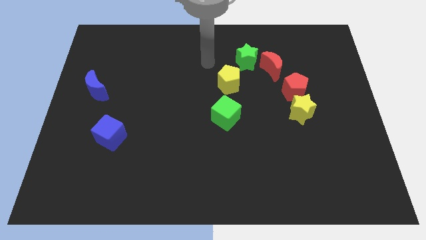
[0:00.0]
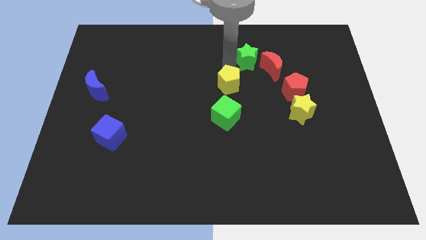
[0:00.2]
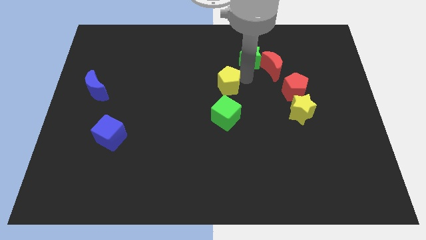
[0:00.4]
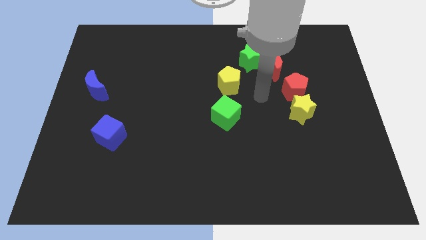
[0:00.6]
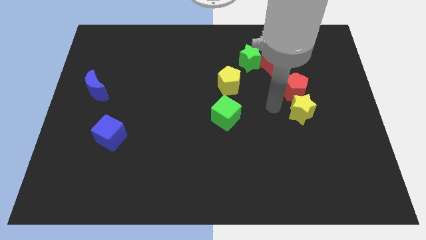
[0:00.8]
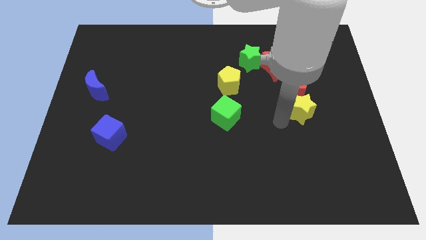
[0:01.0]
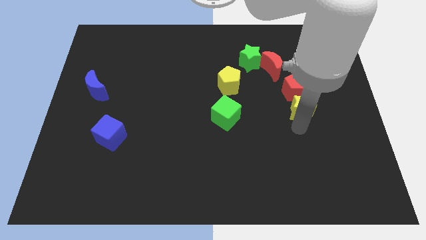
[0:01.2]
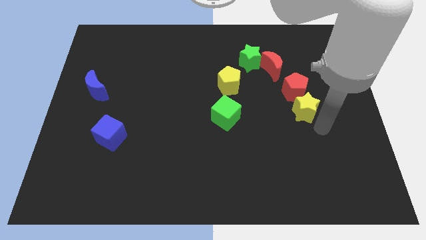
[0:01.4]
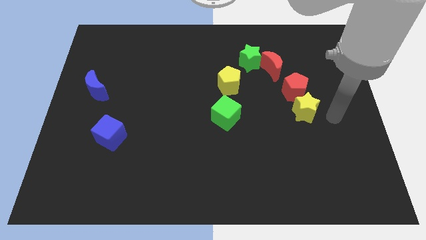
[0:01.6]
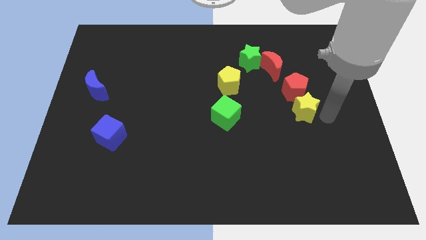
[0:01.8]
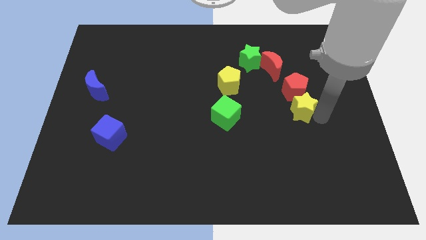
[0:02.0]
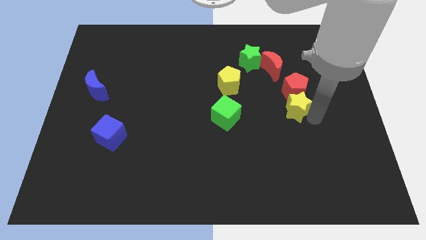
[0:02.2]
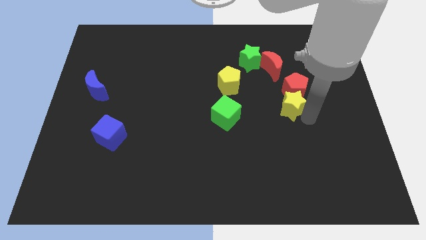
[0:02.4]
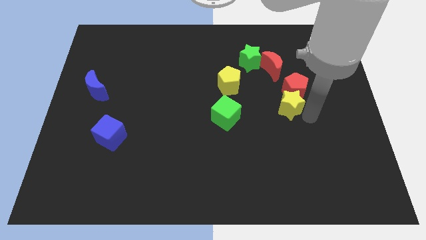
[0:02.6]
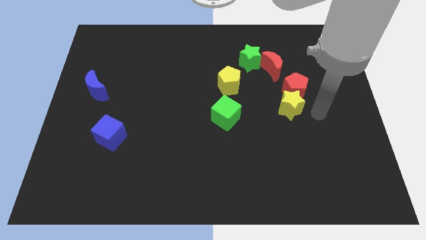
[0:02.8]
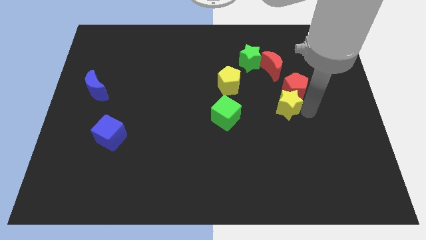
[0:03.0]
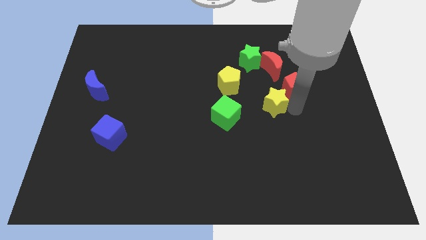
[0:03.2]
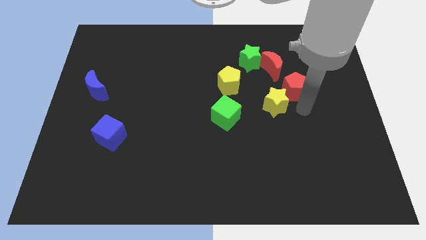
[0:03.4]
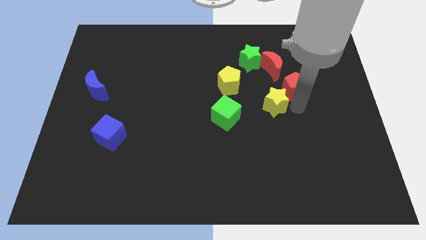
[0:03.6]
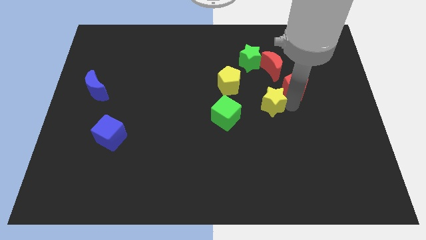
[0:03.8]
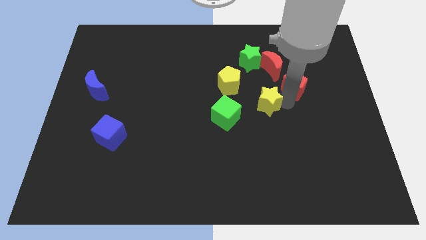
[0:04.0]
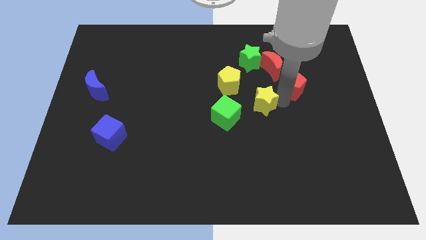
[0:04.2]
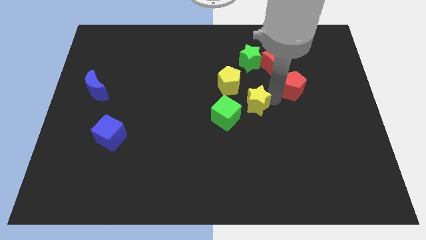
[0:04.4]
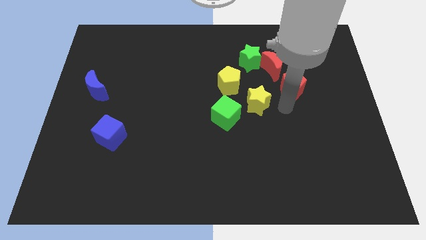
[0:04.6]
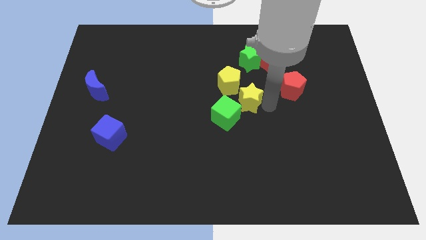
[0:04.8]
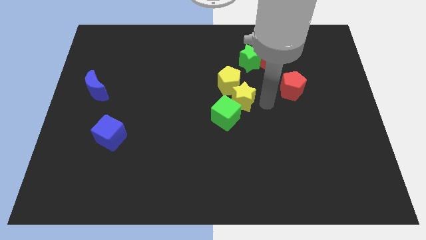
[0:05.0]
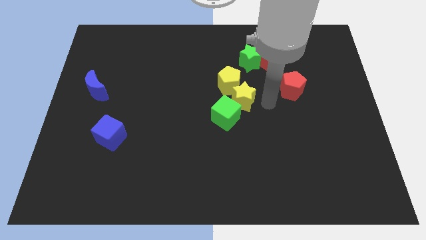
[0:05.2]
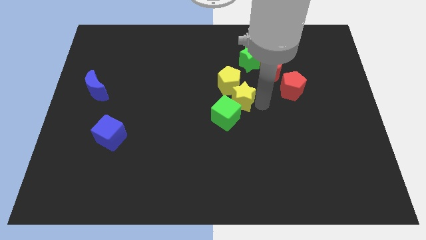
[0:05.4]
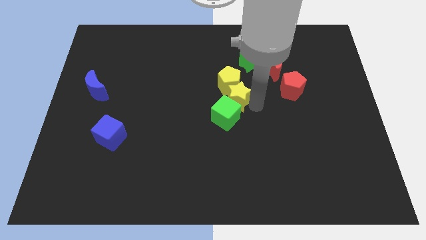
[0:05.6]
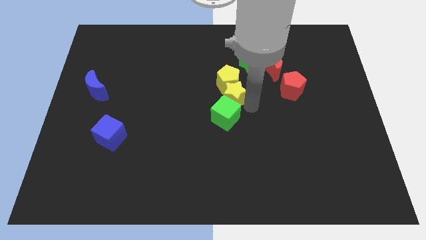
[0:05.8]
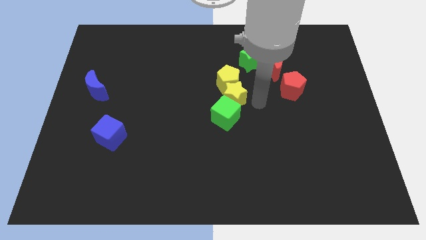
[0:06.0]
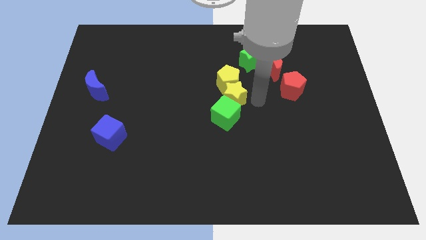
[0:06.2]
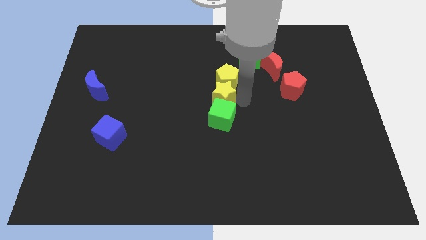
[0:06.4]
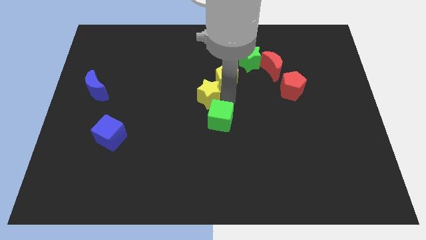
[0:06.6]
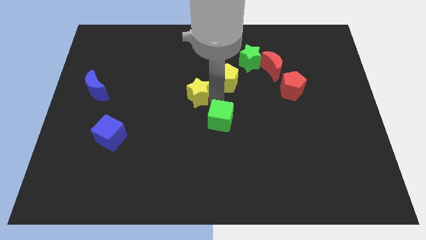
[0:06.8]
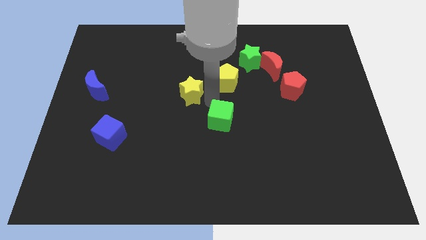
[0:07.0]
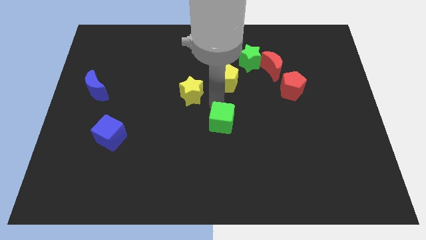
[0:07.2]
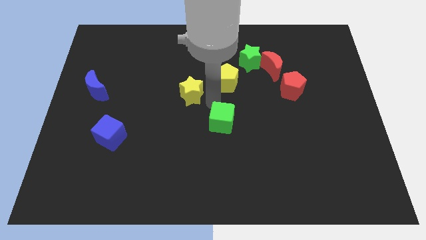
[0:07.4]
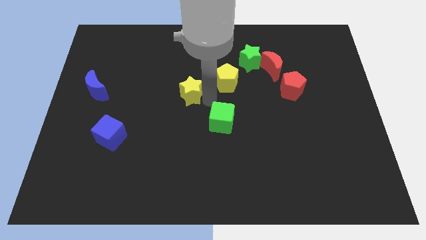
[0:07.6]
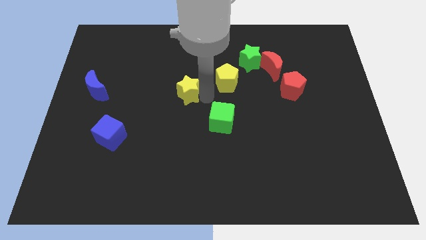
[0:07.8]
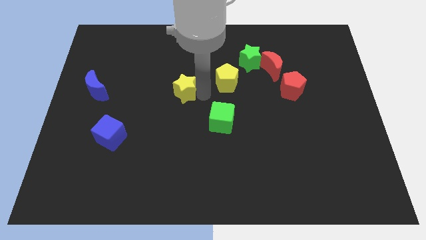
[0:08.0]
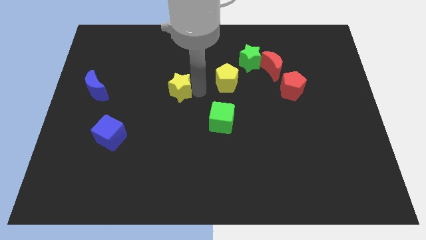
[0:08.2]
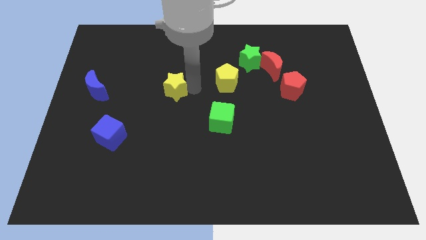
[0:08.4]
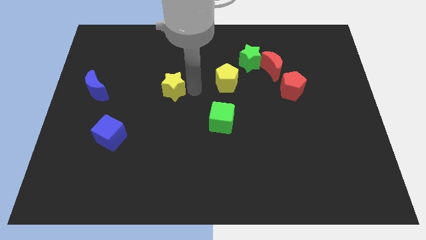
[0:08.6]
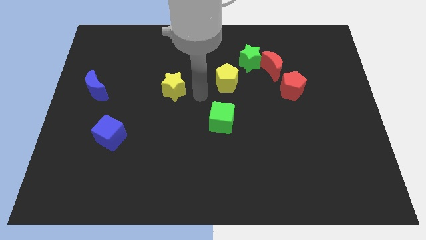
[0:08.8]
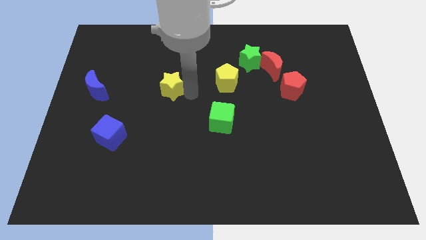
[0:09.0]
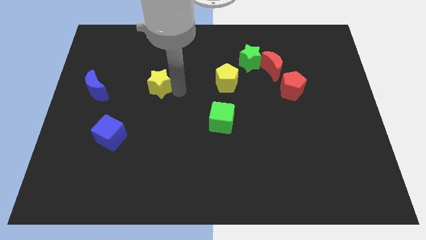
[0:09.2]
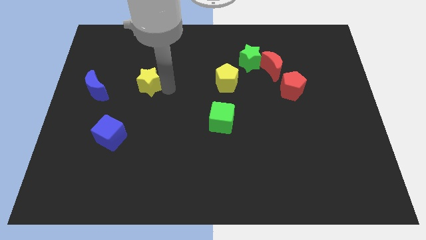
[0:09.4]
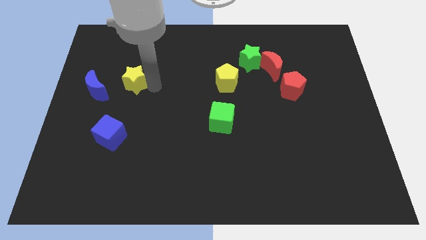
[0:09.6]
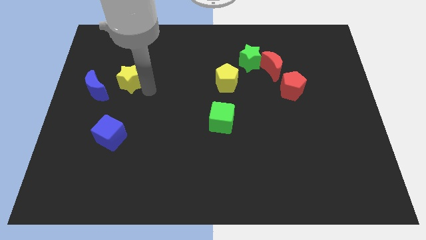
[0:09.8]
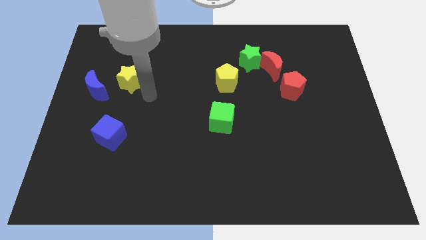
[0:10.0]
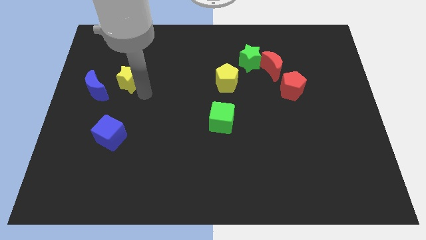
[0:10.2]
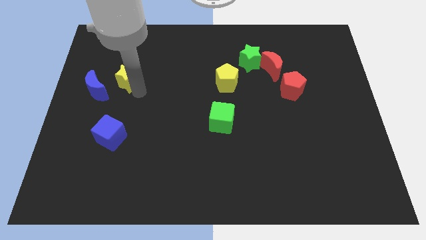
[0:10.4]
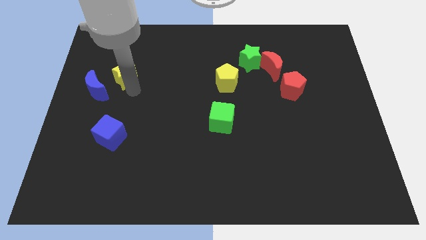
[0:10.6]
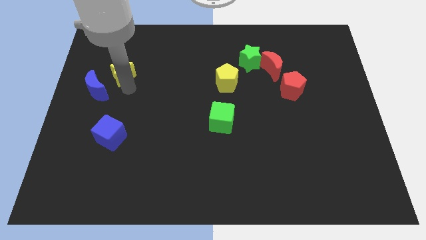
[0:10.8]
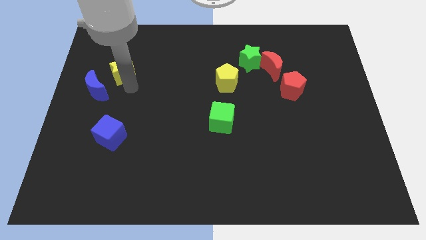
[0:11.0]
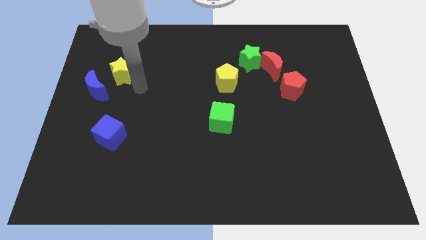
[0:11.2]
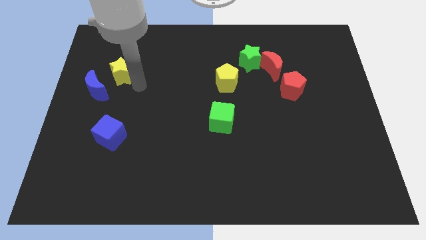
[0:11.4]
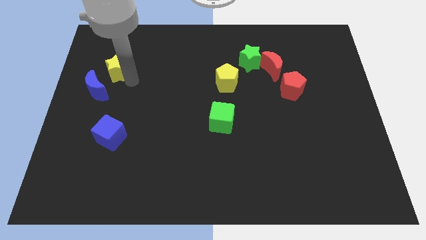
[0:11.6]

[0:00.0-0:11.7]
push the yellow star above the blue moon

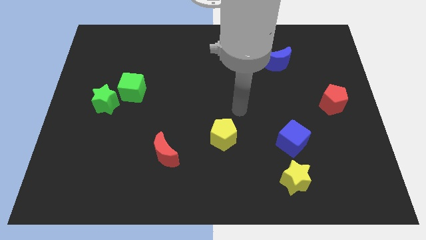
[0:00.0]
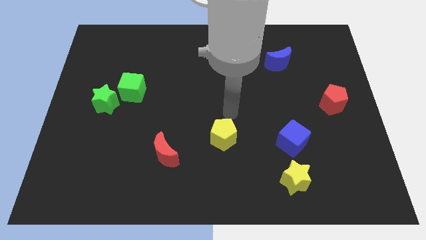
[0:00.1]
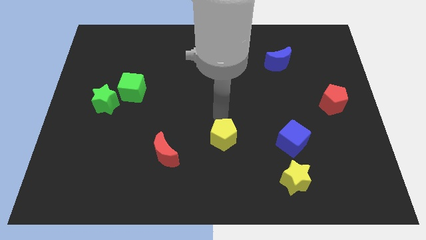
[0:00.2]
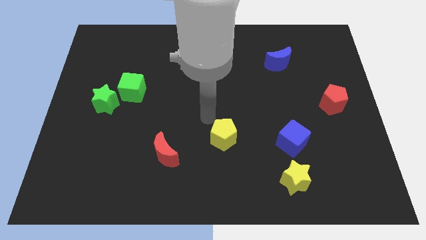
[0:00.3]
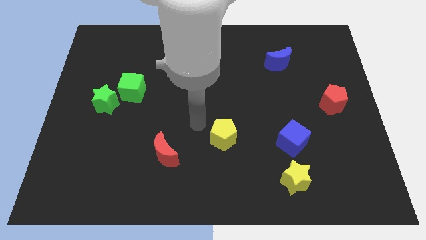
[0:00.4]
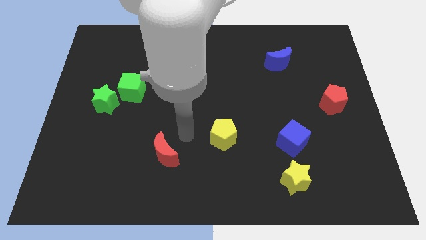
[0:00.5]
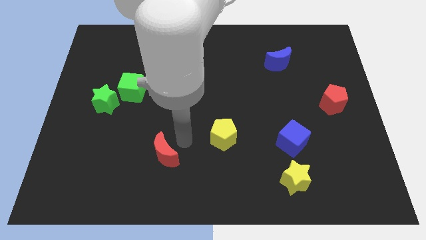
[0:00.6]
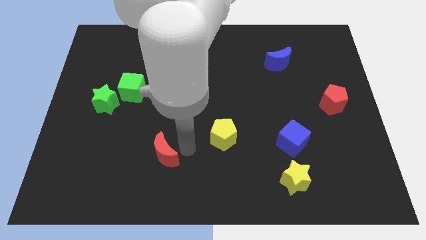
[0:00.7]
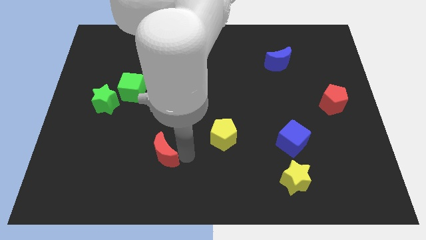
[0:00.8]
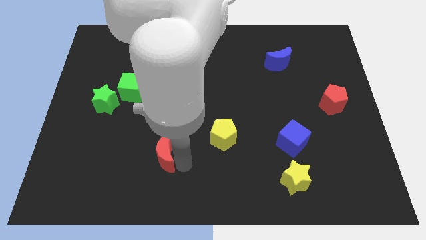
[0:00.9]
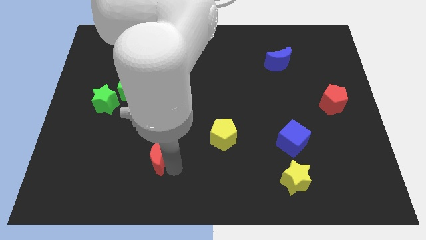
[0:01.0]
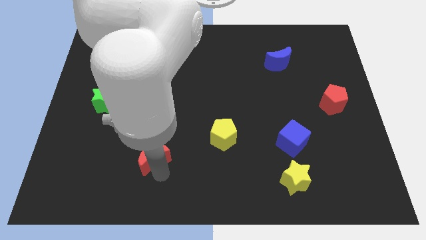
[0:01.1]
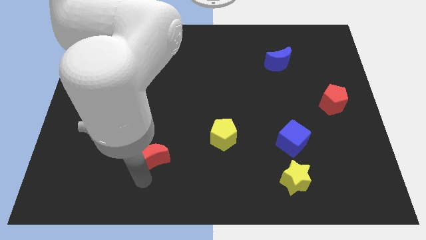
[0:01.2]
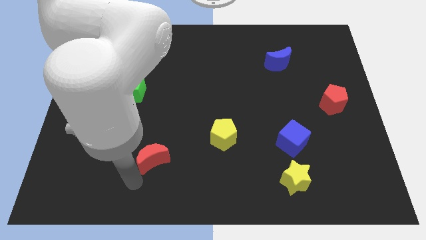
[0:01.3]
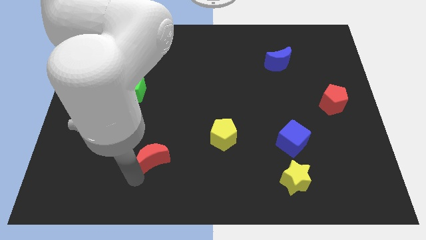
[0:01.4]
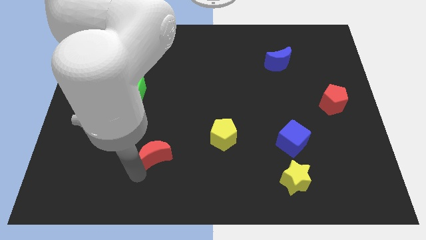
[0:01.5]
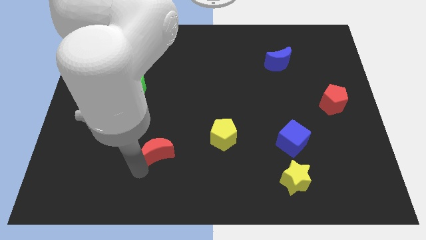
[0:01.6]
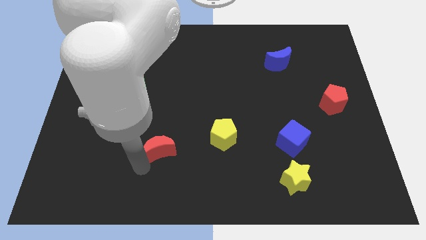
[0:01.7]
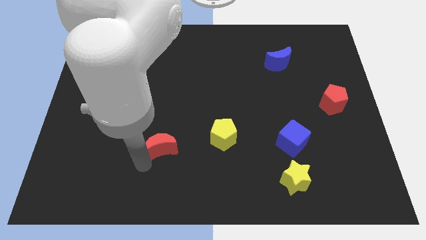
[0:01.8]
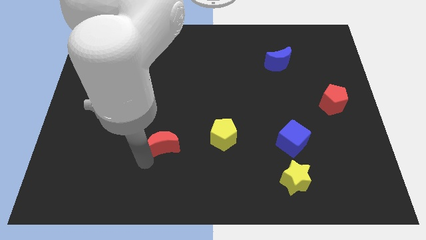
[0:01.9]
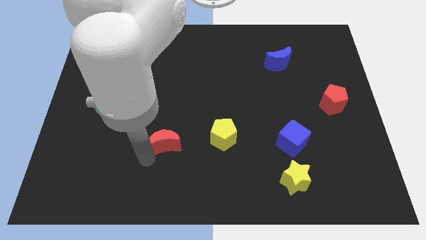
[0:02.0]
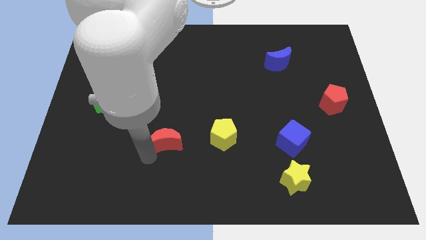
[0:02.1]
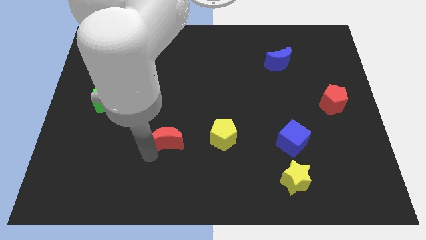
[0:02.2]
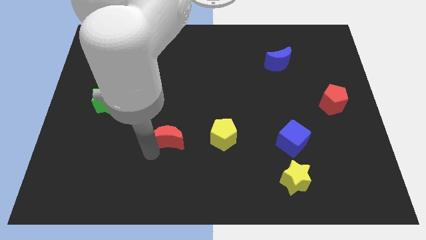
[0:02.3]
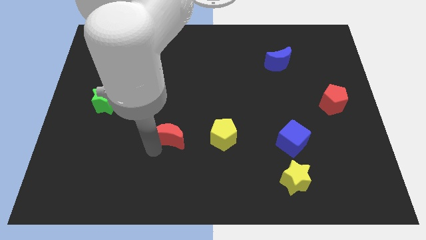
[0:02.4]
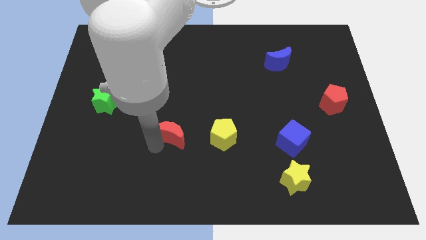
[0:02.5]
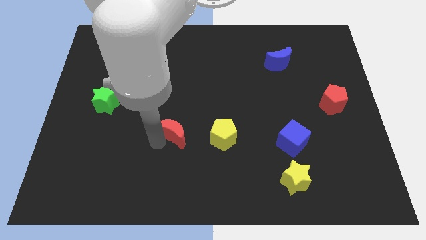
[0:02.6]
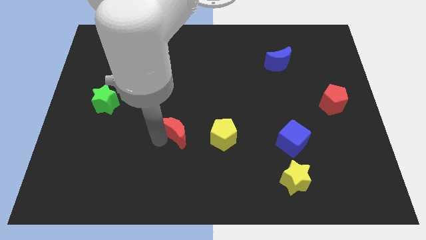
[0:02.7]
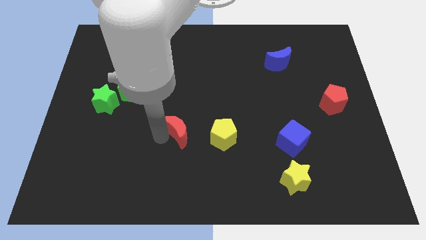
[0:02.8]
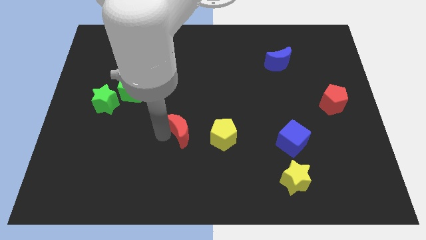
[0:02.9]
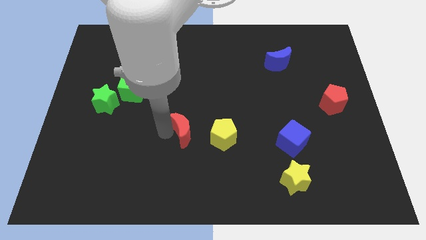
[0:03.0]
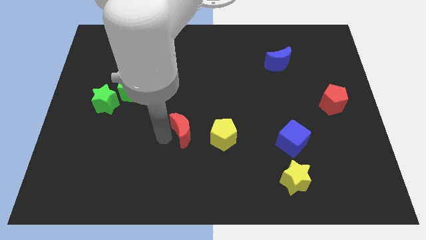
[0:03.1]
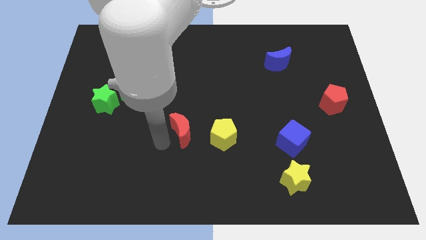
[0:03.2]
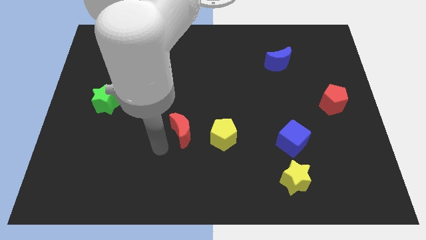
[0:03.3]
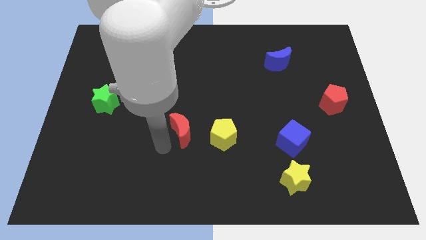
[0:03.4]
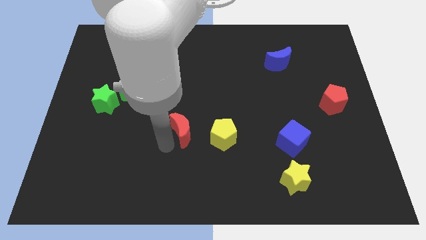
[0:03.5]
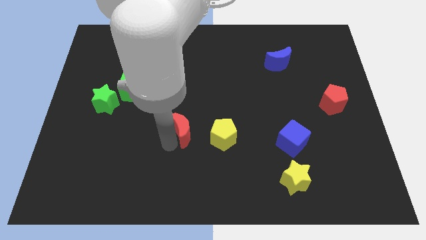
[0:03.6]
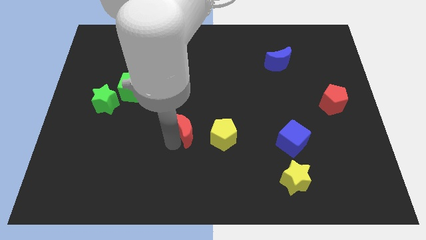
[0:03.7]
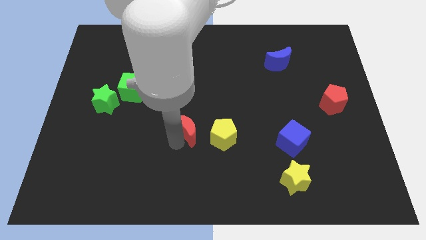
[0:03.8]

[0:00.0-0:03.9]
put the red moon diagonally up and to the left of the yellow pentagon
